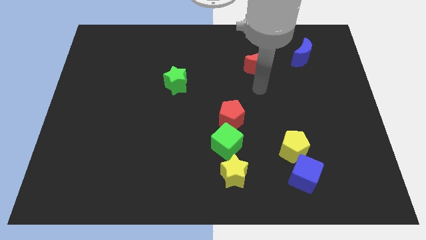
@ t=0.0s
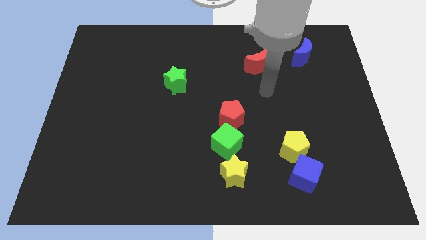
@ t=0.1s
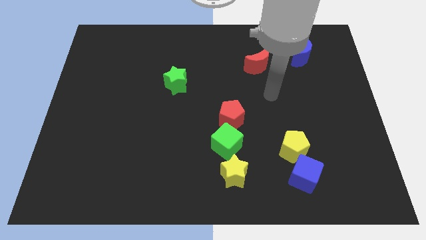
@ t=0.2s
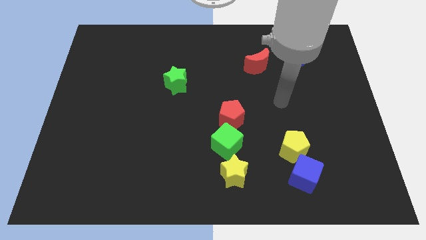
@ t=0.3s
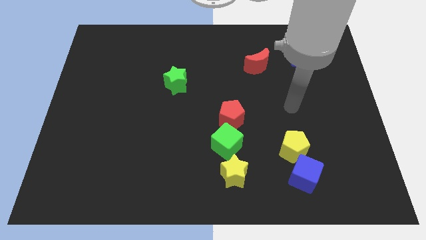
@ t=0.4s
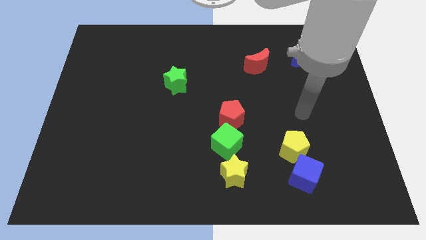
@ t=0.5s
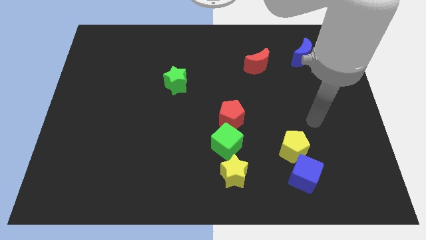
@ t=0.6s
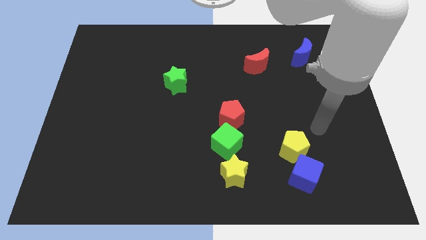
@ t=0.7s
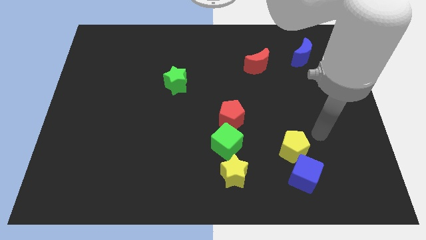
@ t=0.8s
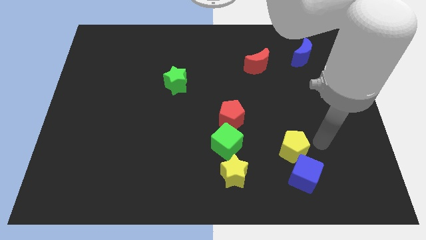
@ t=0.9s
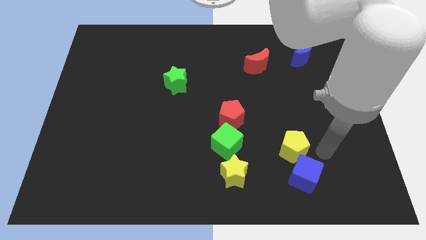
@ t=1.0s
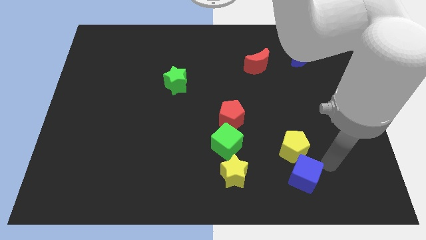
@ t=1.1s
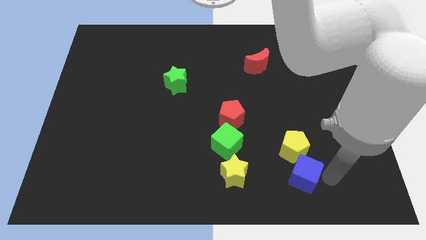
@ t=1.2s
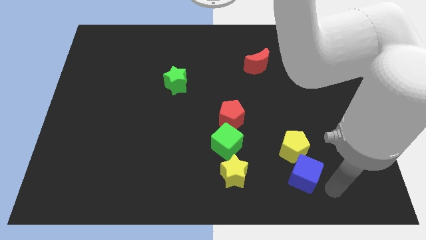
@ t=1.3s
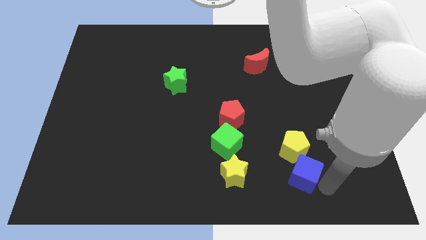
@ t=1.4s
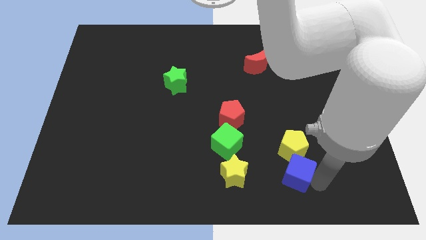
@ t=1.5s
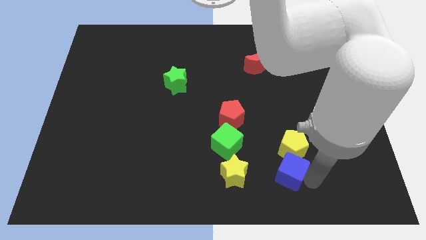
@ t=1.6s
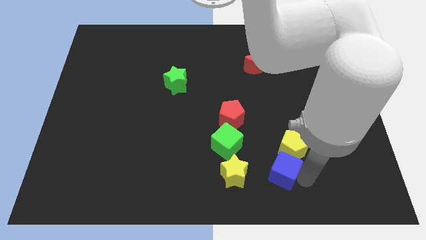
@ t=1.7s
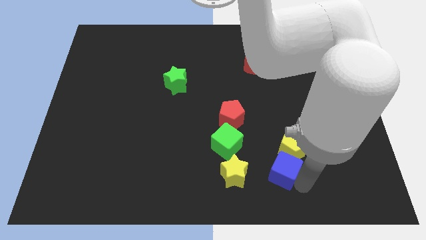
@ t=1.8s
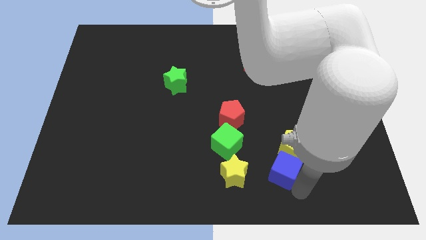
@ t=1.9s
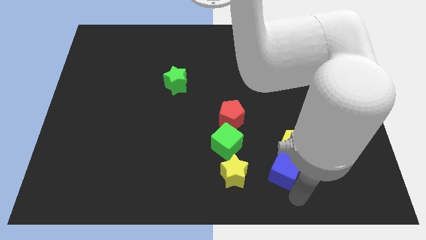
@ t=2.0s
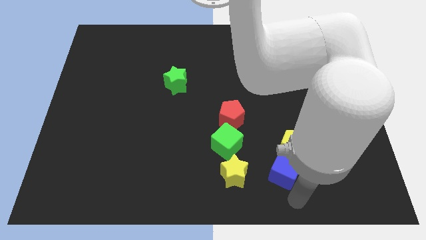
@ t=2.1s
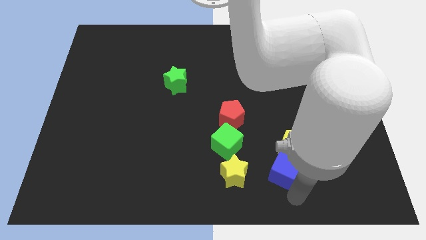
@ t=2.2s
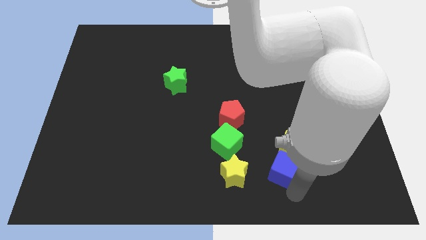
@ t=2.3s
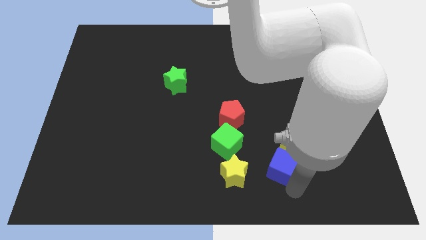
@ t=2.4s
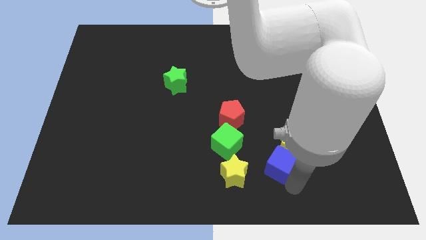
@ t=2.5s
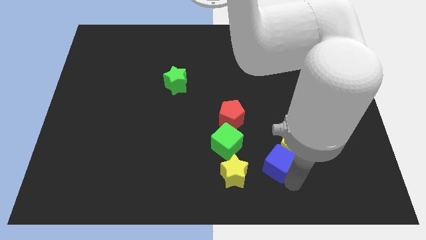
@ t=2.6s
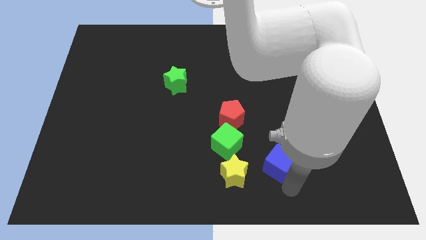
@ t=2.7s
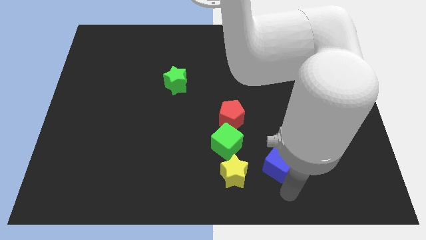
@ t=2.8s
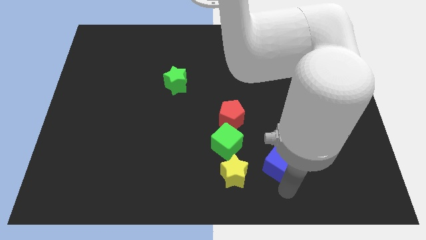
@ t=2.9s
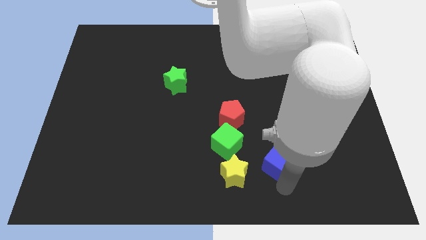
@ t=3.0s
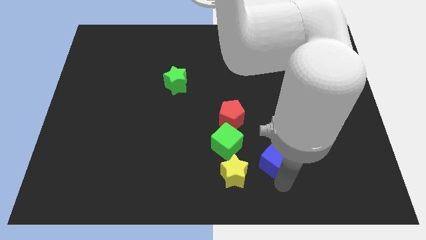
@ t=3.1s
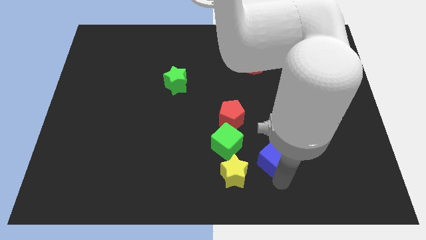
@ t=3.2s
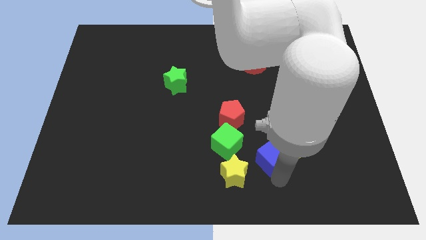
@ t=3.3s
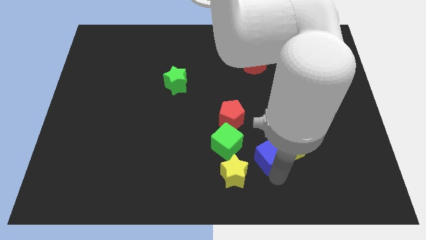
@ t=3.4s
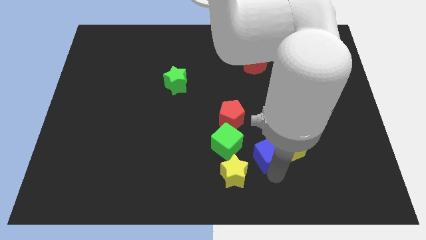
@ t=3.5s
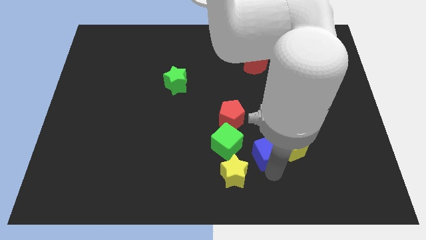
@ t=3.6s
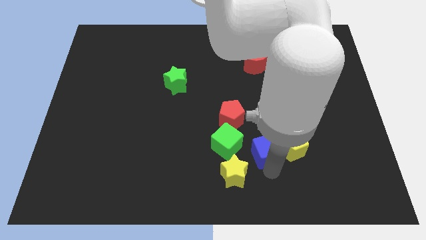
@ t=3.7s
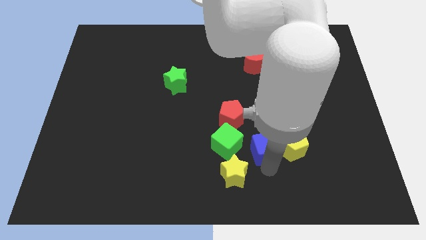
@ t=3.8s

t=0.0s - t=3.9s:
move the blue cube to the top left side of the yellow pentagon

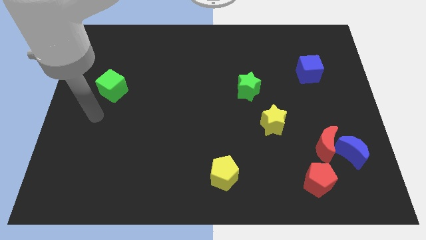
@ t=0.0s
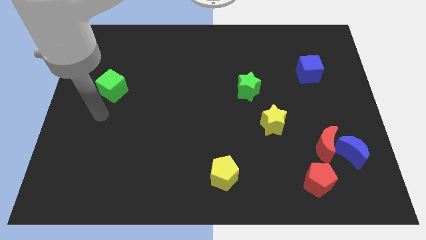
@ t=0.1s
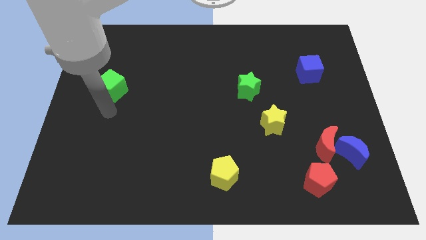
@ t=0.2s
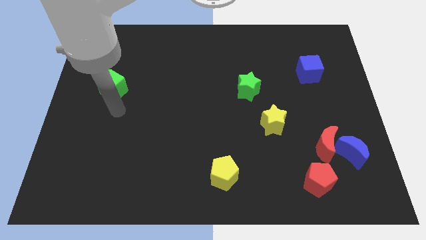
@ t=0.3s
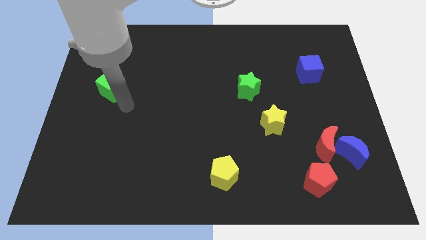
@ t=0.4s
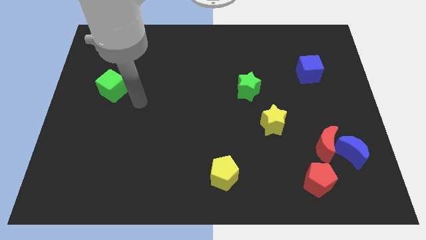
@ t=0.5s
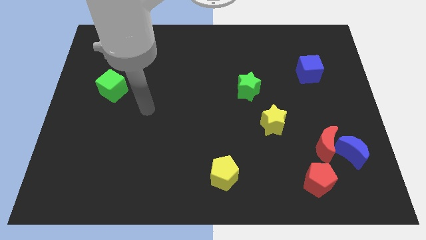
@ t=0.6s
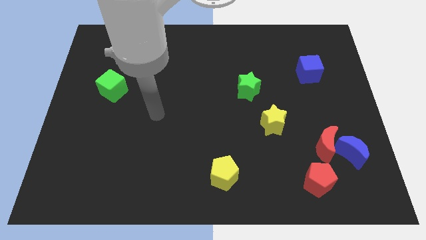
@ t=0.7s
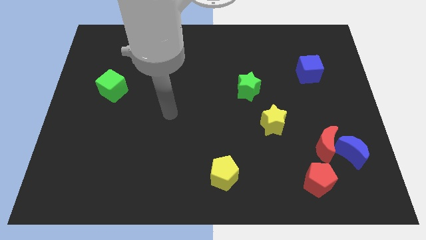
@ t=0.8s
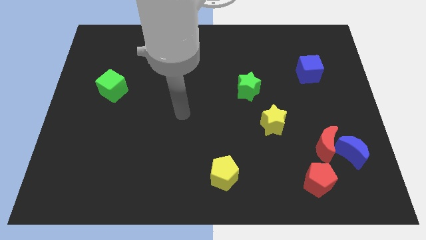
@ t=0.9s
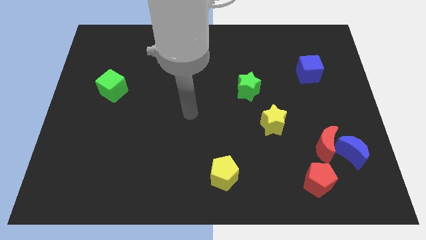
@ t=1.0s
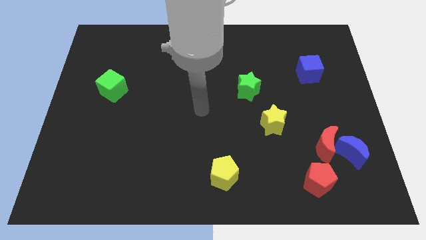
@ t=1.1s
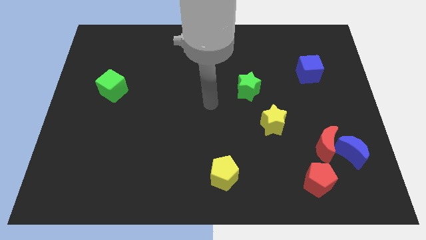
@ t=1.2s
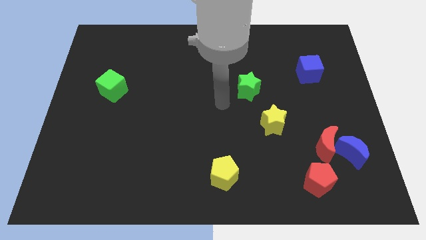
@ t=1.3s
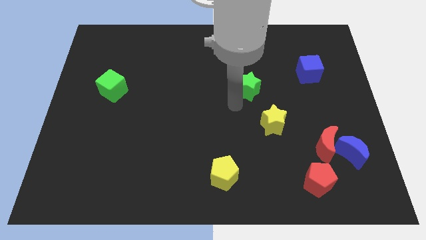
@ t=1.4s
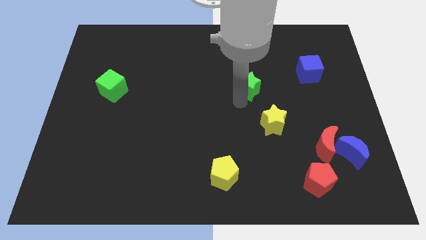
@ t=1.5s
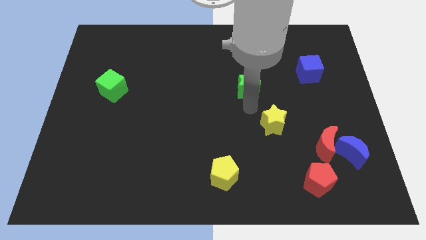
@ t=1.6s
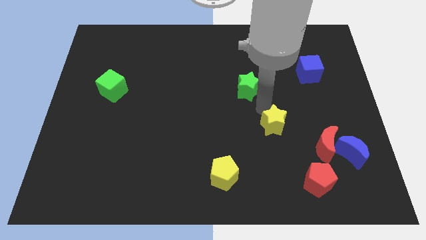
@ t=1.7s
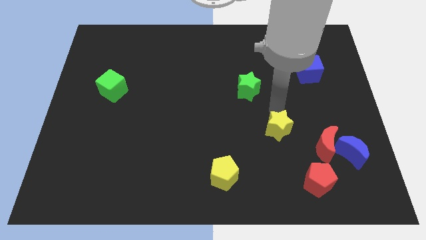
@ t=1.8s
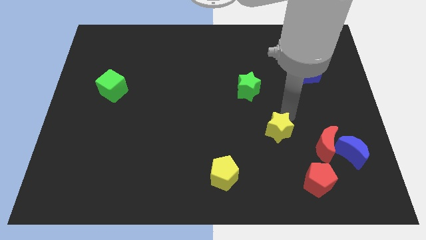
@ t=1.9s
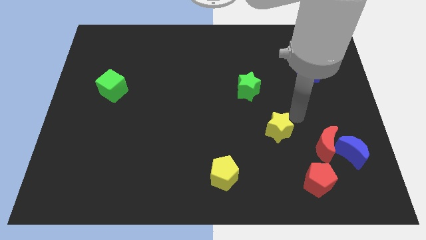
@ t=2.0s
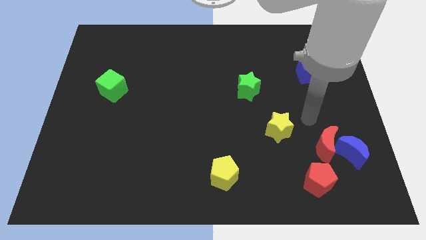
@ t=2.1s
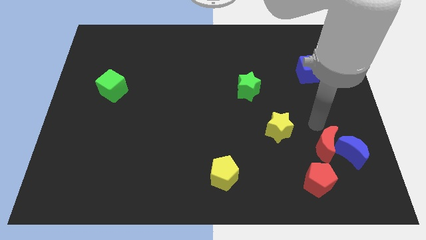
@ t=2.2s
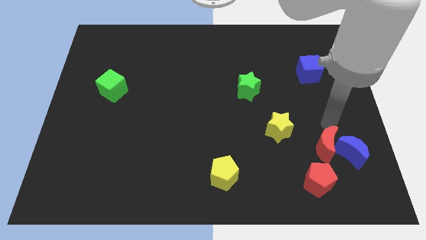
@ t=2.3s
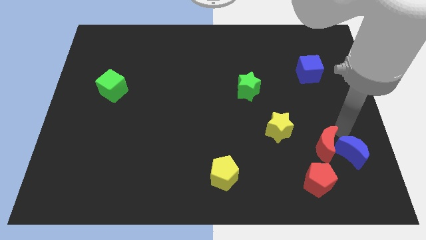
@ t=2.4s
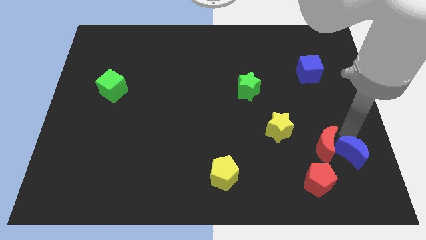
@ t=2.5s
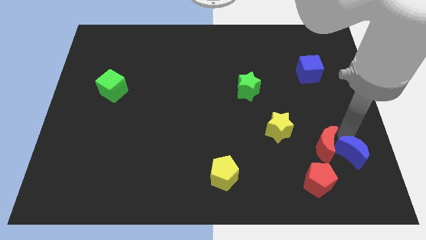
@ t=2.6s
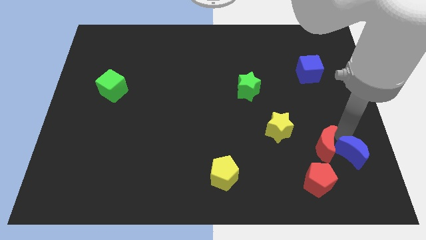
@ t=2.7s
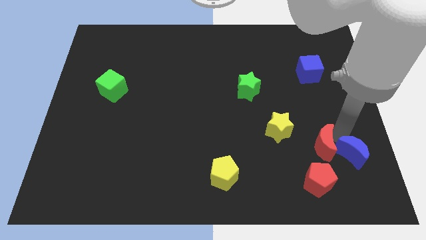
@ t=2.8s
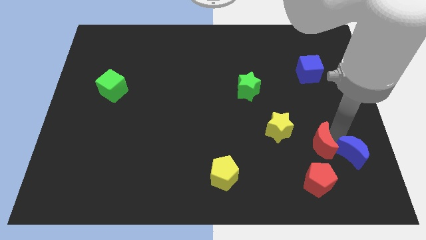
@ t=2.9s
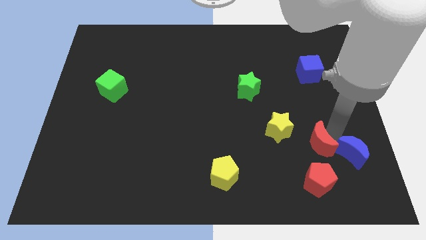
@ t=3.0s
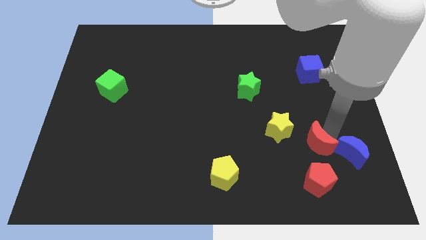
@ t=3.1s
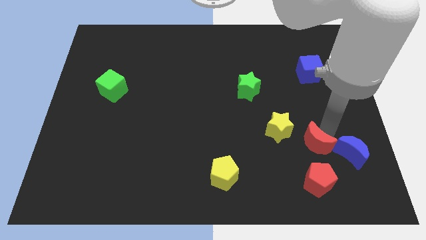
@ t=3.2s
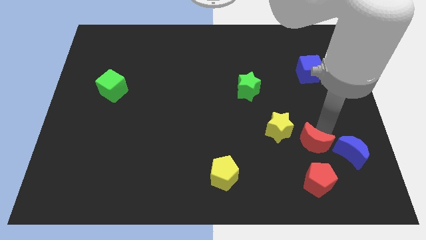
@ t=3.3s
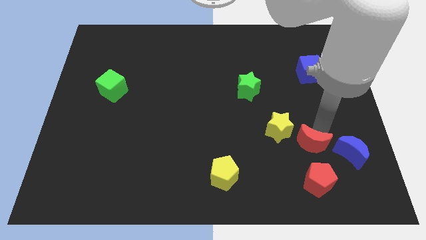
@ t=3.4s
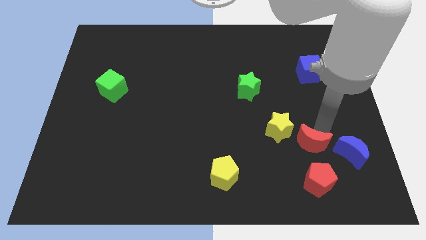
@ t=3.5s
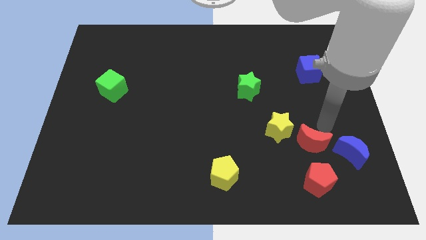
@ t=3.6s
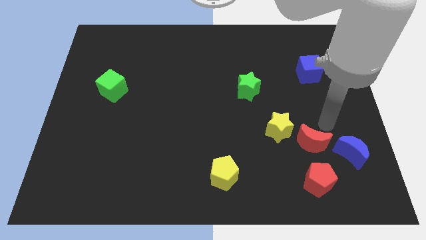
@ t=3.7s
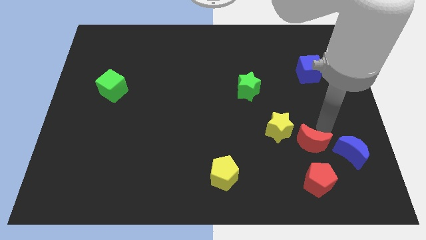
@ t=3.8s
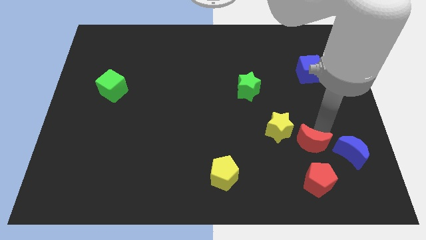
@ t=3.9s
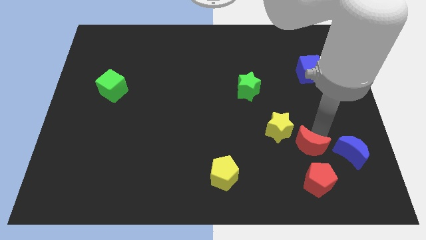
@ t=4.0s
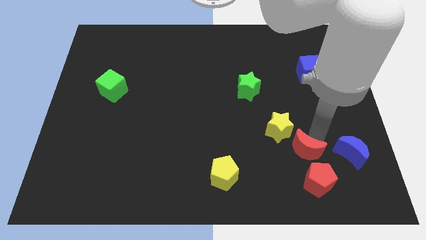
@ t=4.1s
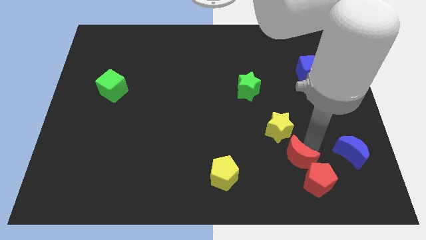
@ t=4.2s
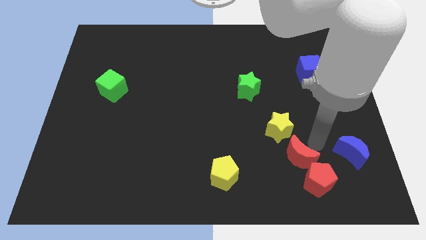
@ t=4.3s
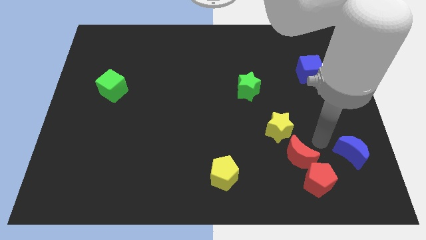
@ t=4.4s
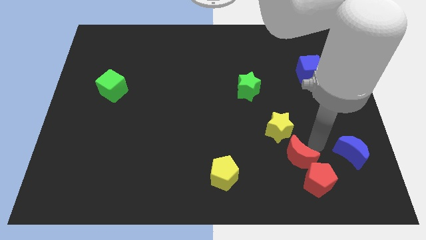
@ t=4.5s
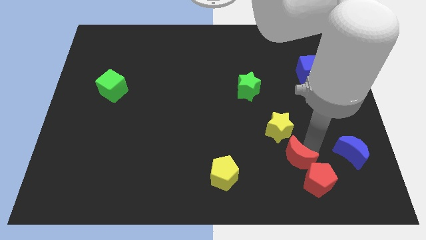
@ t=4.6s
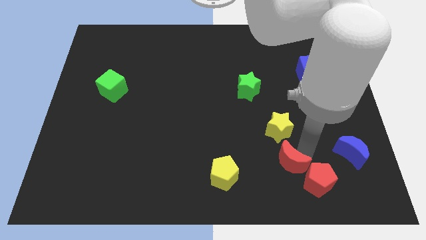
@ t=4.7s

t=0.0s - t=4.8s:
move the red moon to the right of the yellow pentagon
